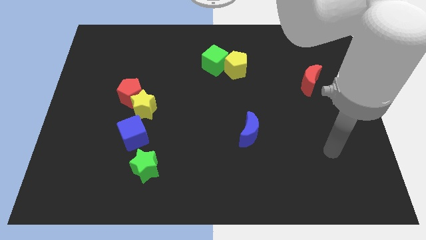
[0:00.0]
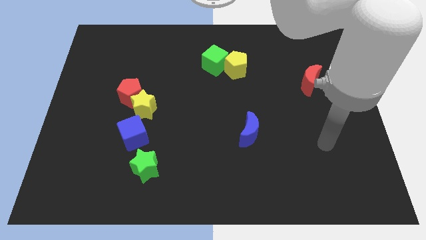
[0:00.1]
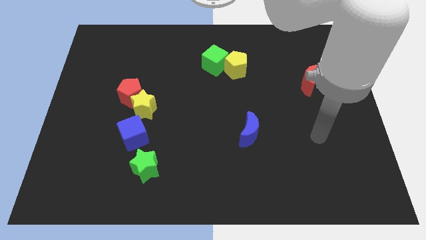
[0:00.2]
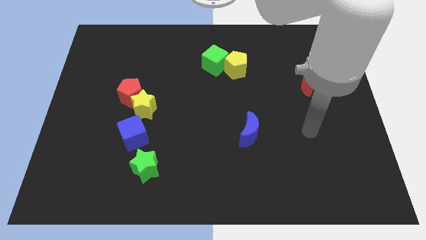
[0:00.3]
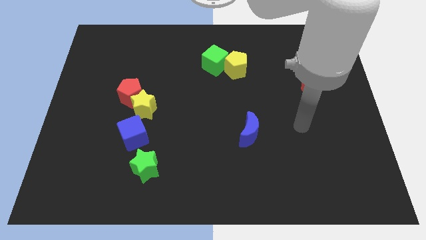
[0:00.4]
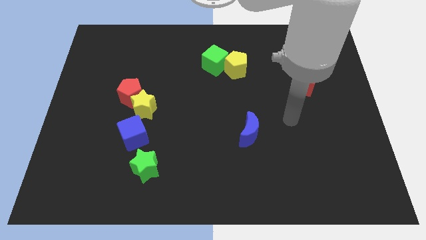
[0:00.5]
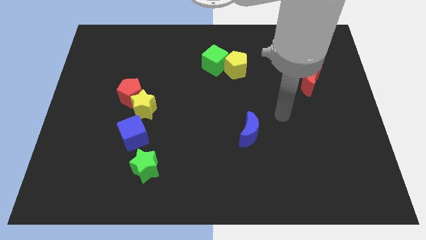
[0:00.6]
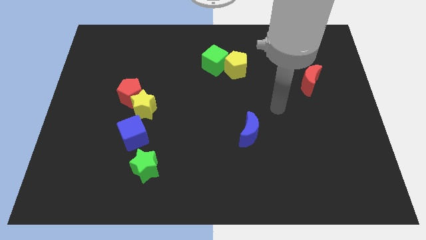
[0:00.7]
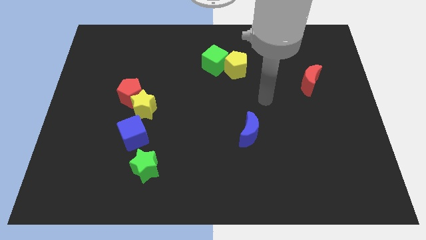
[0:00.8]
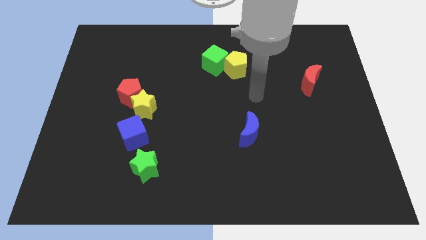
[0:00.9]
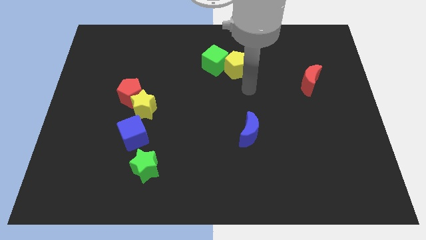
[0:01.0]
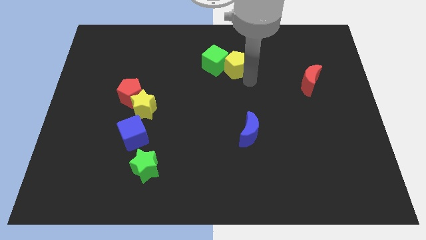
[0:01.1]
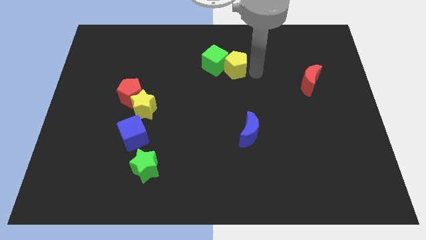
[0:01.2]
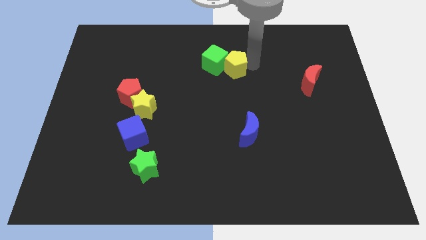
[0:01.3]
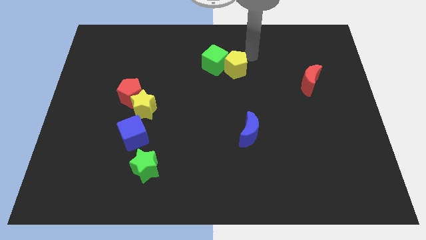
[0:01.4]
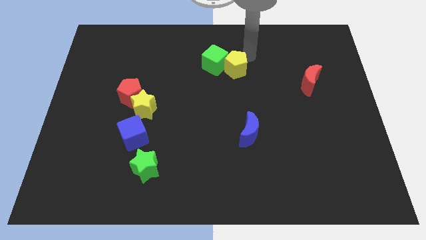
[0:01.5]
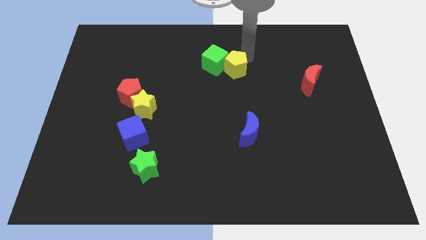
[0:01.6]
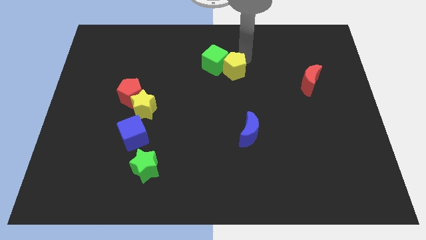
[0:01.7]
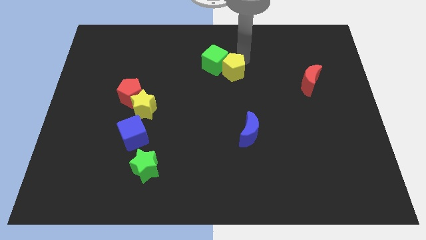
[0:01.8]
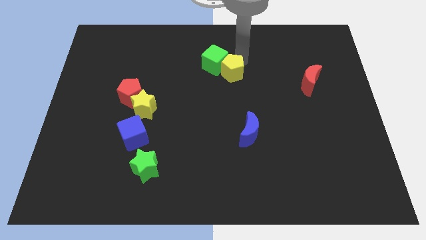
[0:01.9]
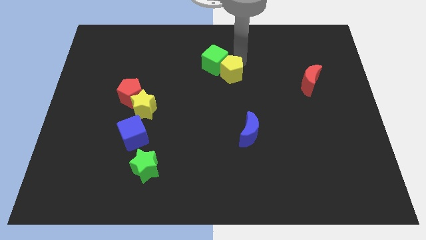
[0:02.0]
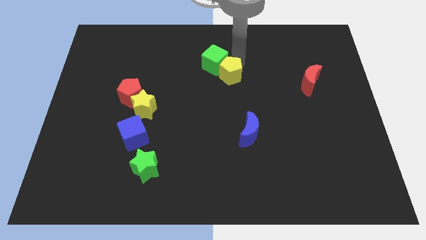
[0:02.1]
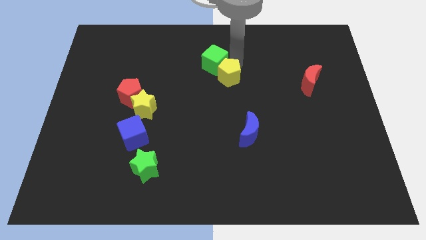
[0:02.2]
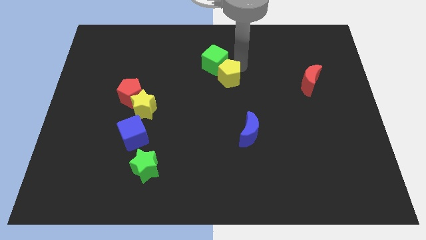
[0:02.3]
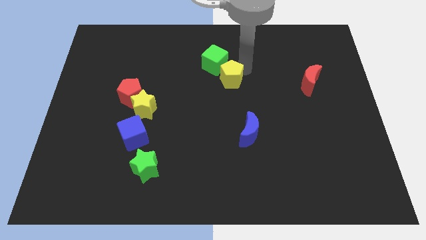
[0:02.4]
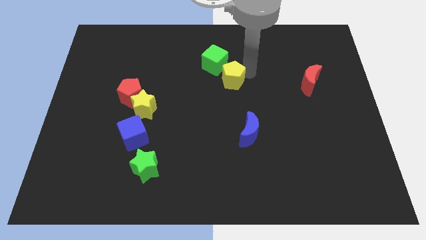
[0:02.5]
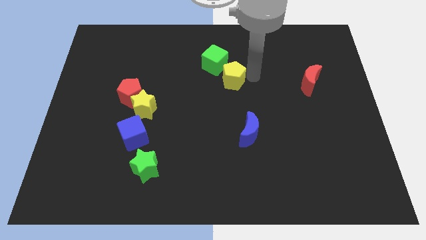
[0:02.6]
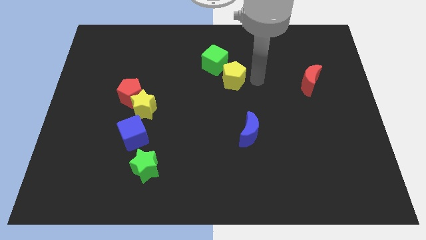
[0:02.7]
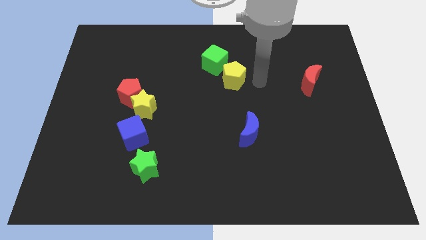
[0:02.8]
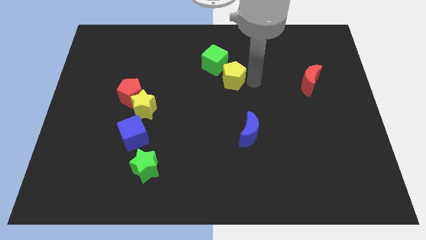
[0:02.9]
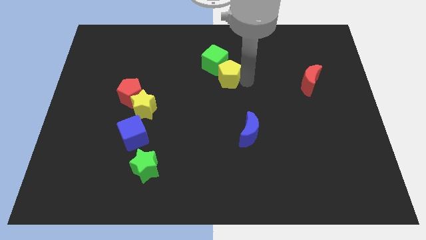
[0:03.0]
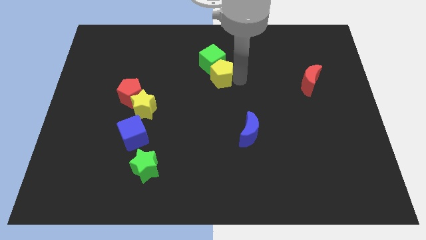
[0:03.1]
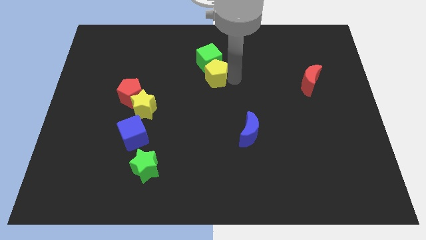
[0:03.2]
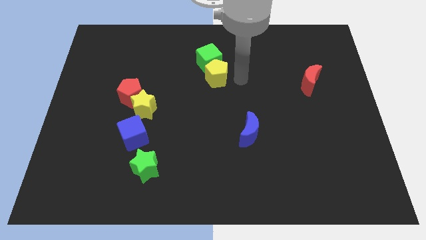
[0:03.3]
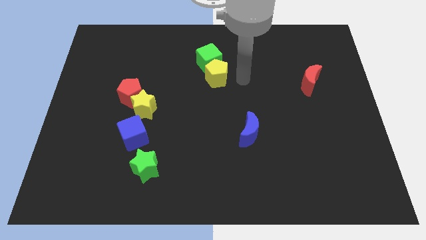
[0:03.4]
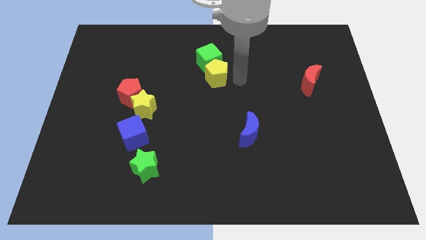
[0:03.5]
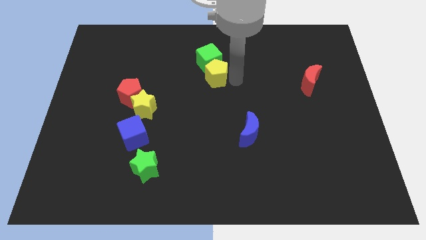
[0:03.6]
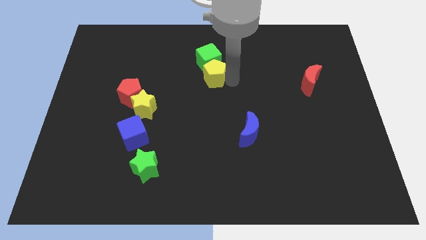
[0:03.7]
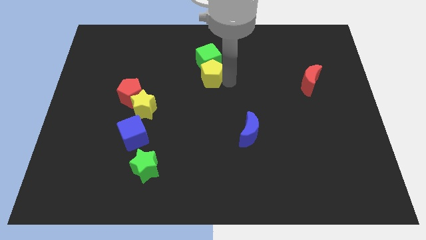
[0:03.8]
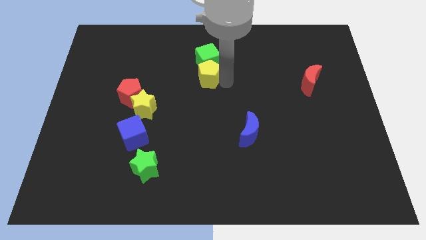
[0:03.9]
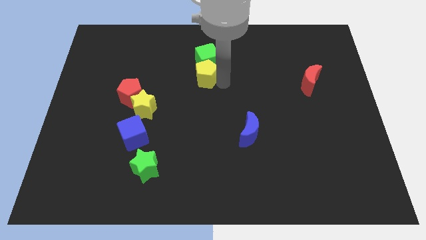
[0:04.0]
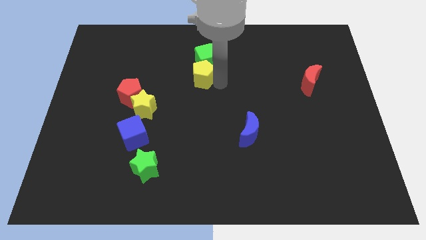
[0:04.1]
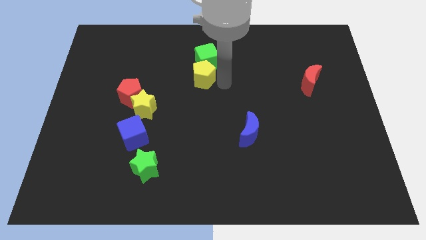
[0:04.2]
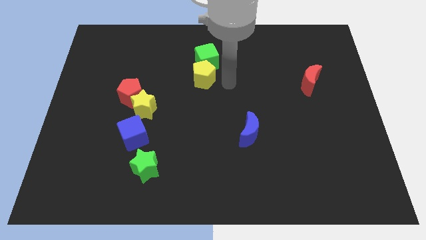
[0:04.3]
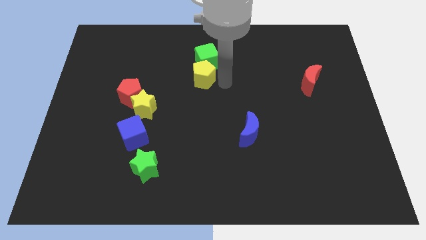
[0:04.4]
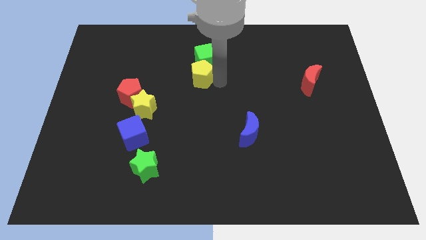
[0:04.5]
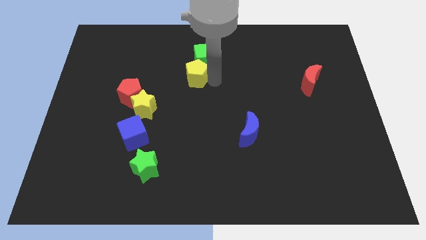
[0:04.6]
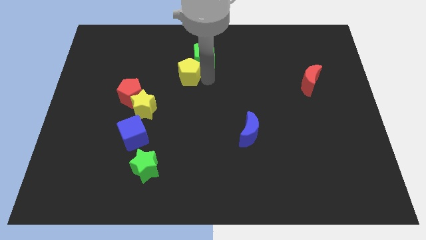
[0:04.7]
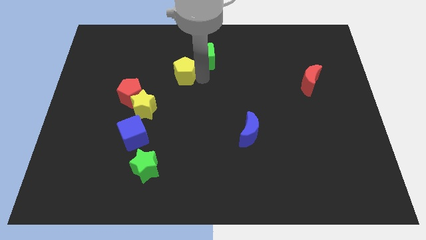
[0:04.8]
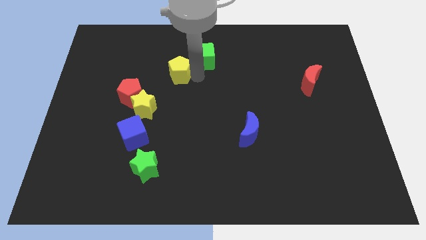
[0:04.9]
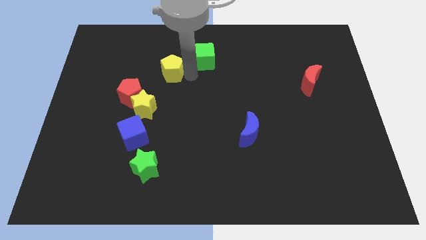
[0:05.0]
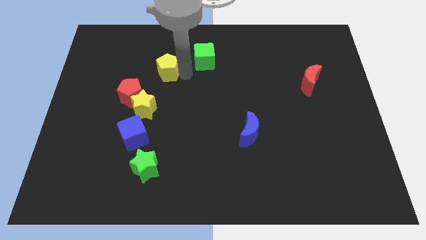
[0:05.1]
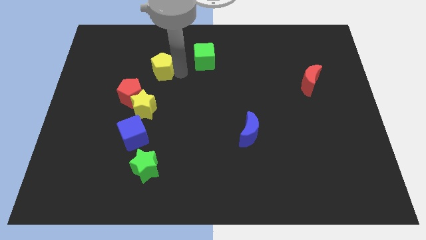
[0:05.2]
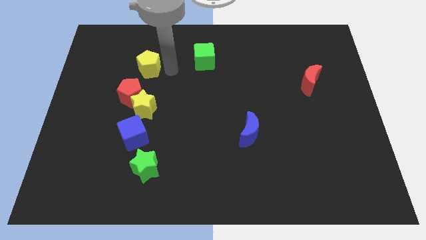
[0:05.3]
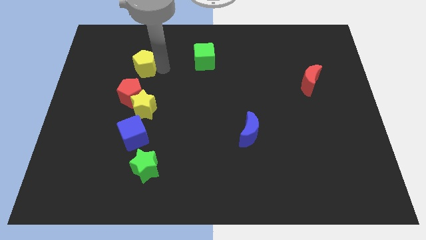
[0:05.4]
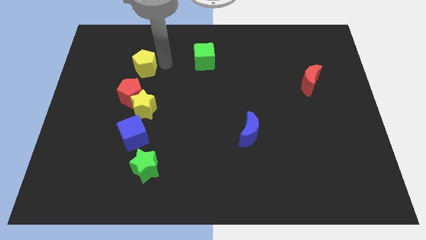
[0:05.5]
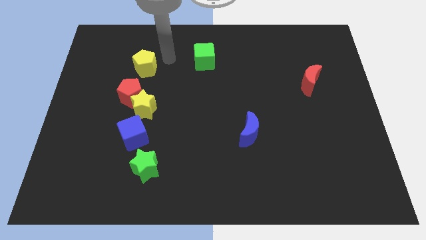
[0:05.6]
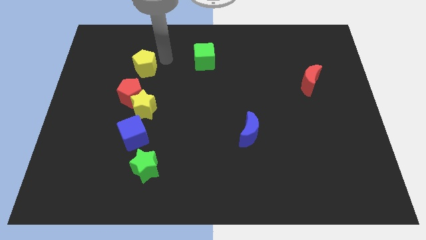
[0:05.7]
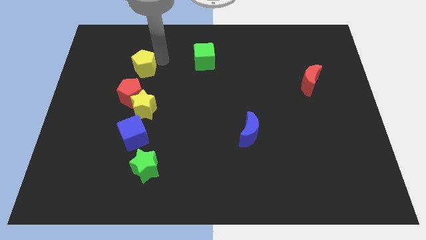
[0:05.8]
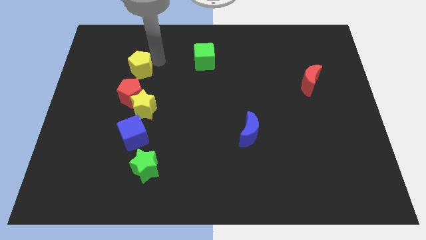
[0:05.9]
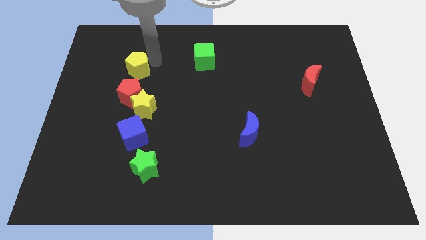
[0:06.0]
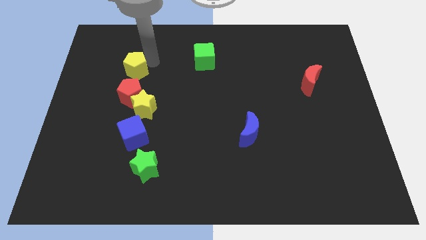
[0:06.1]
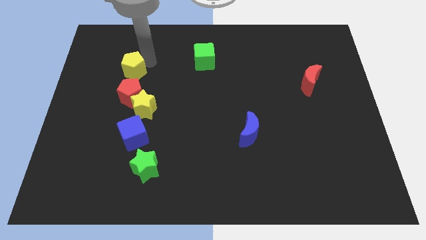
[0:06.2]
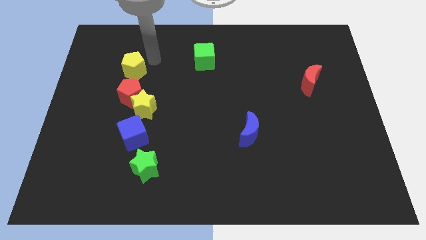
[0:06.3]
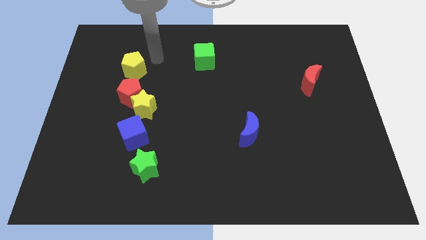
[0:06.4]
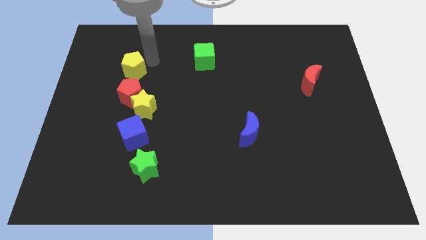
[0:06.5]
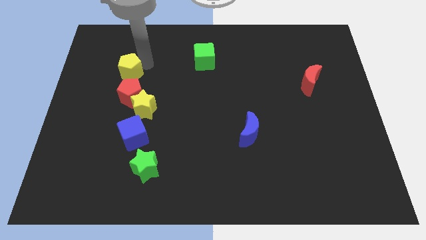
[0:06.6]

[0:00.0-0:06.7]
push the yellow pentagon to the top left side of the red pentagon
